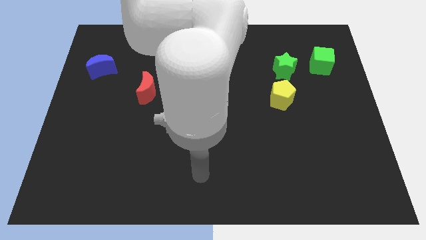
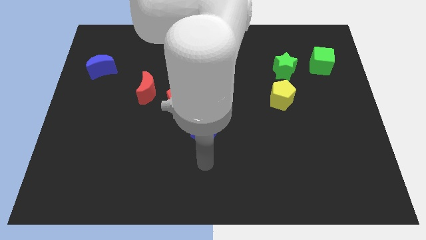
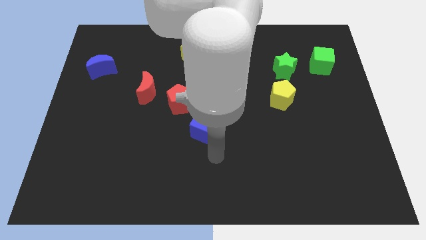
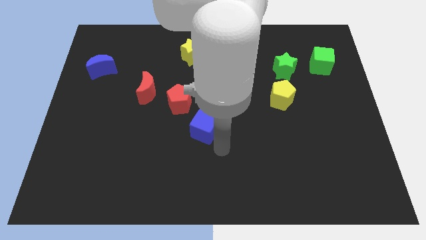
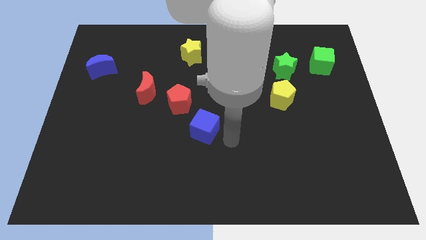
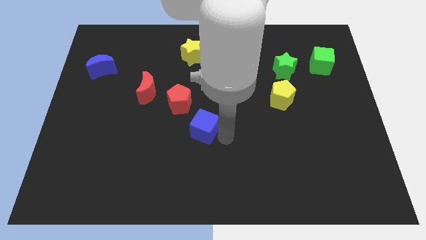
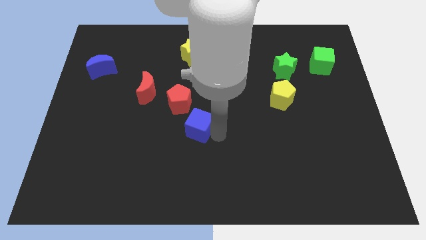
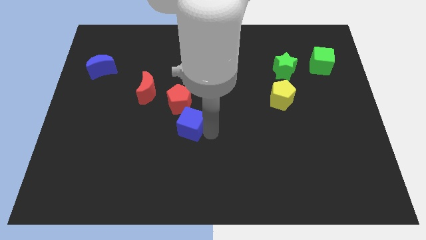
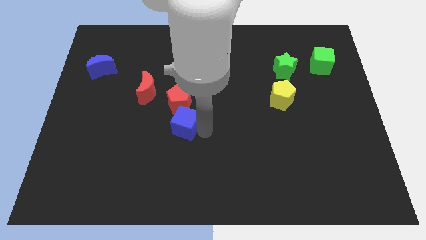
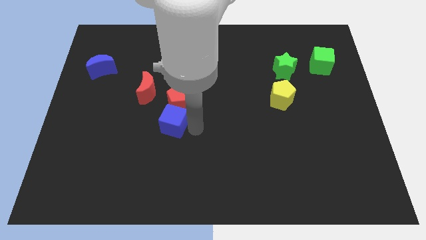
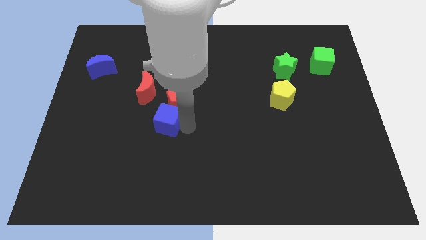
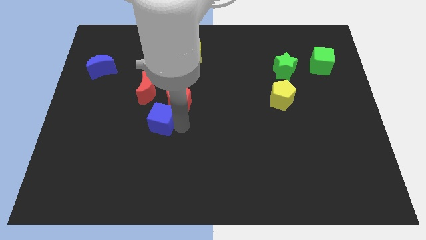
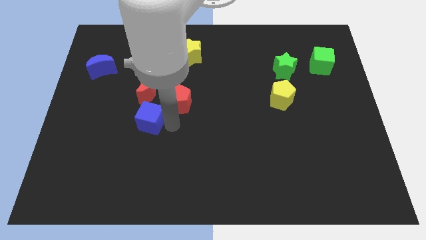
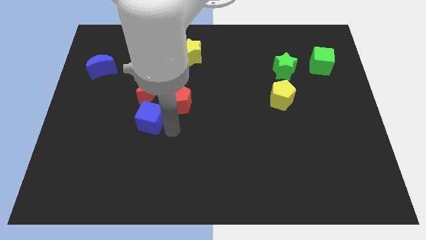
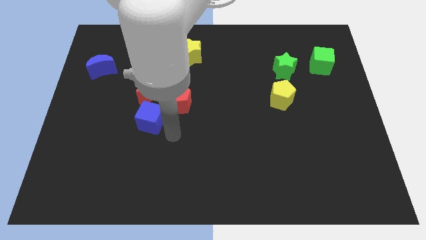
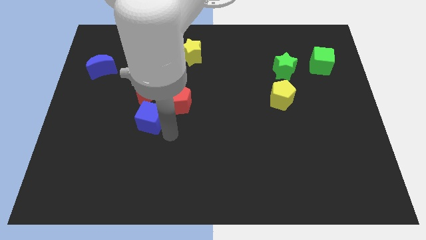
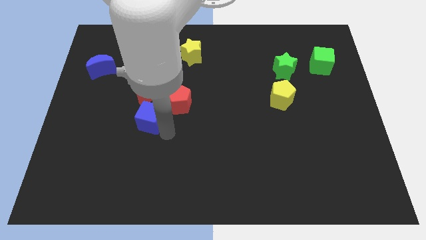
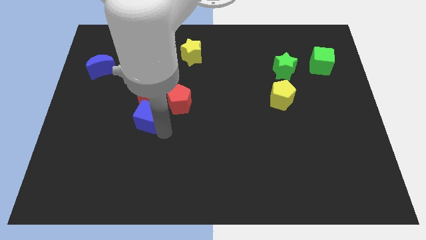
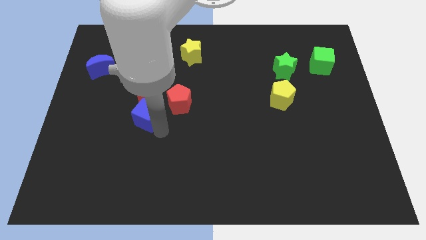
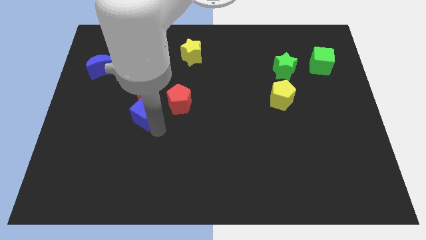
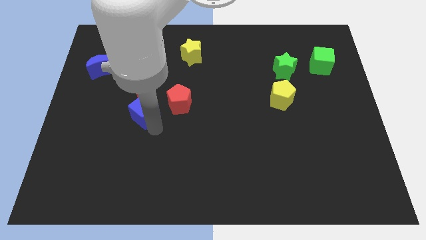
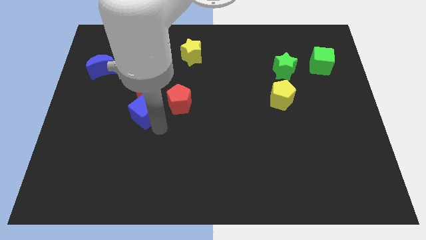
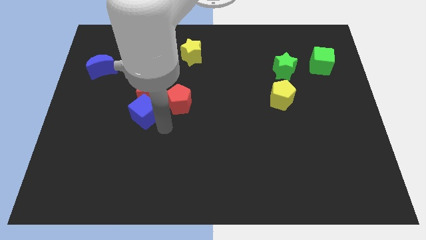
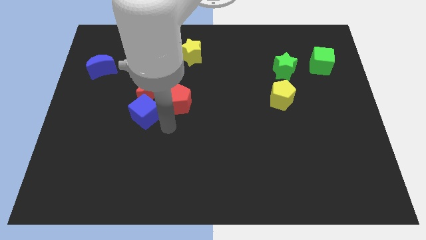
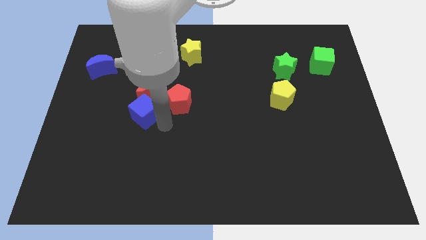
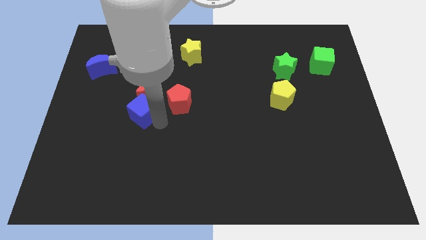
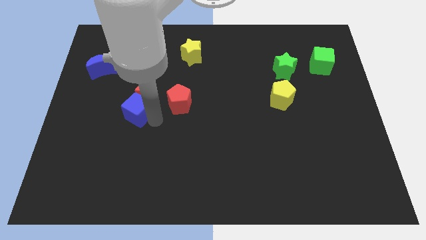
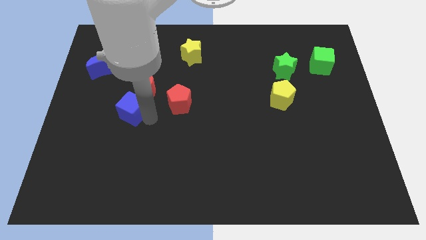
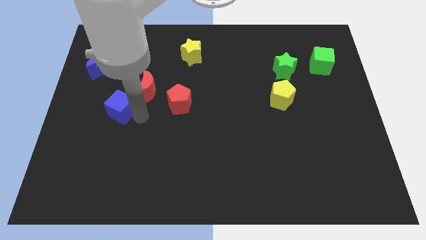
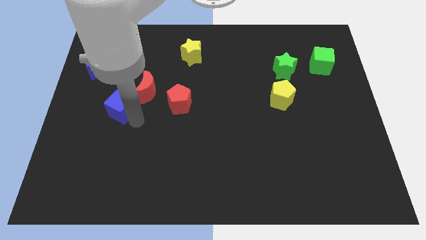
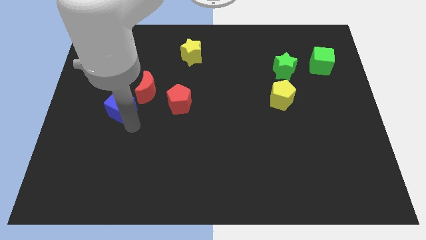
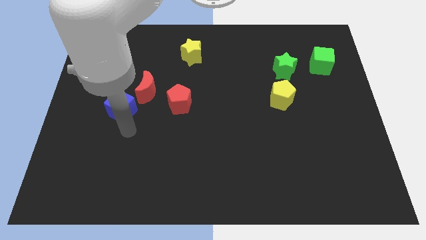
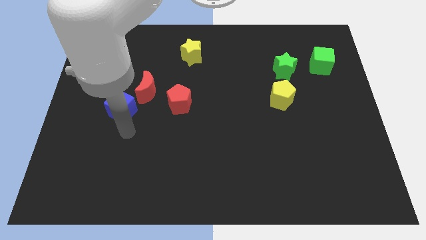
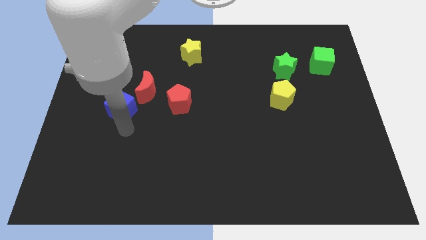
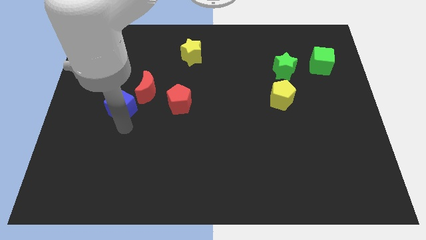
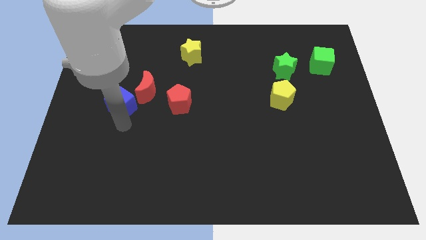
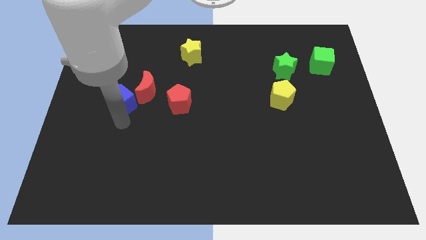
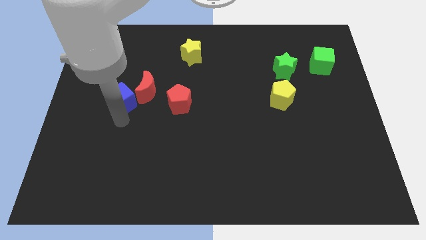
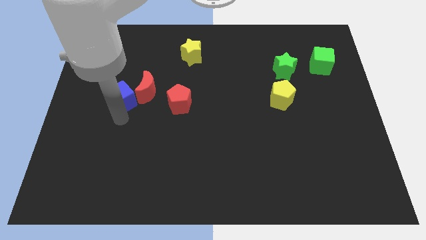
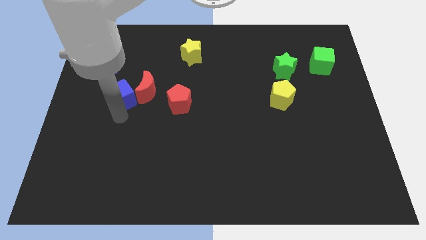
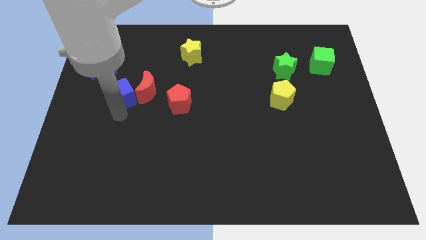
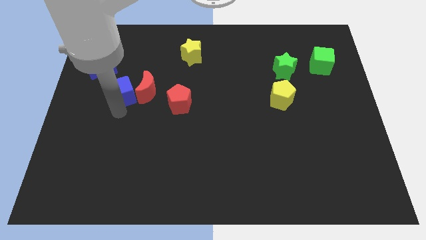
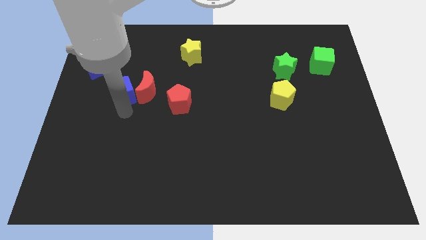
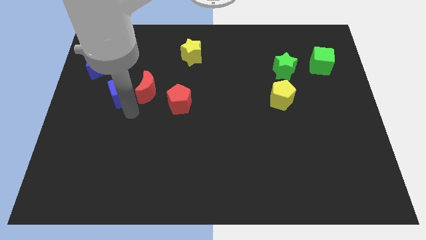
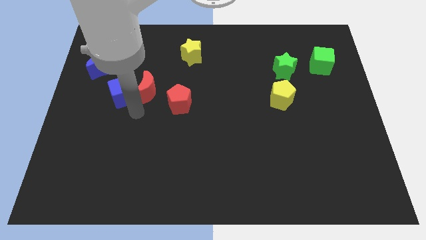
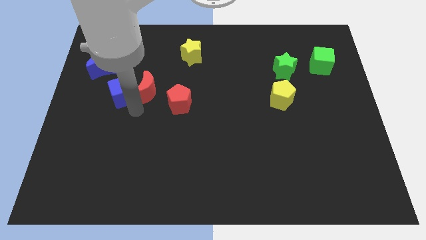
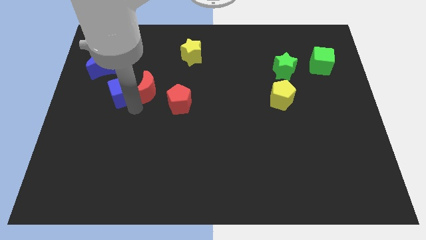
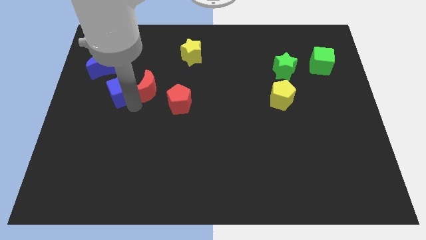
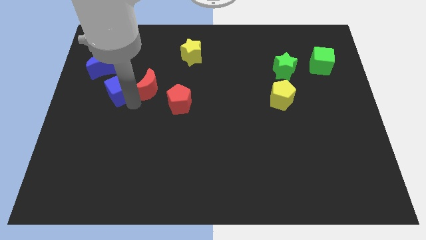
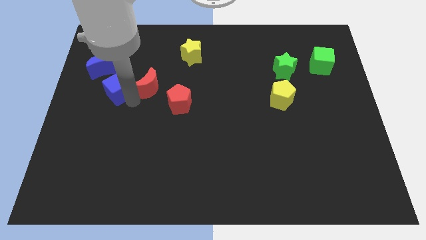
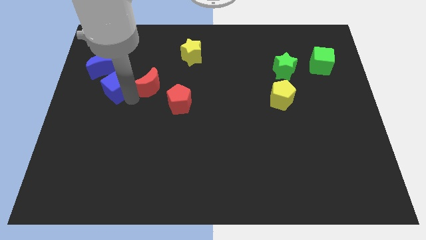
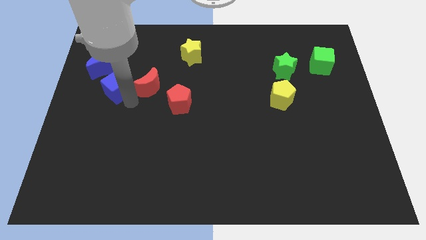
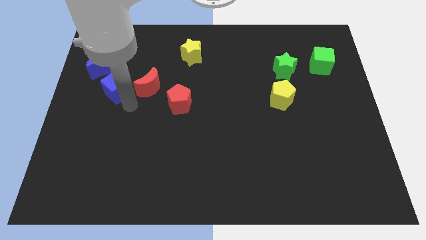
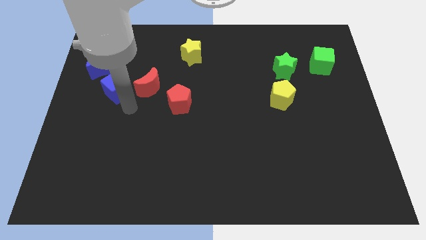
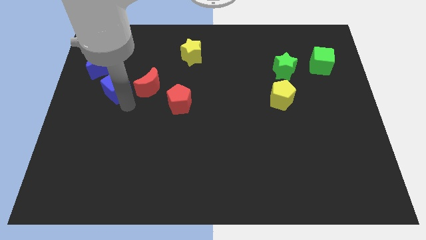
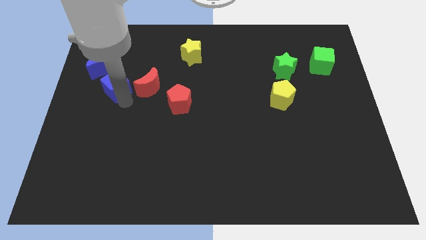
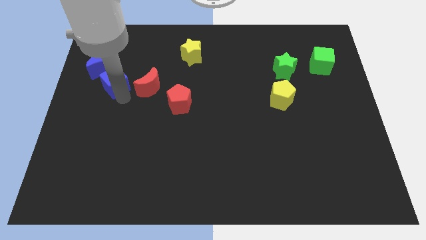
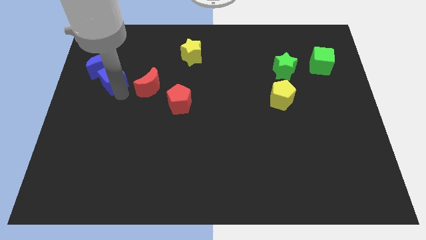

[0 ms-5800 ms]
push the blue cube to the blue moon

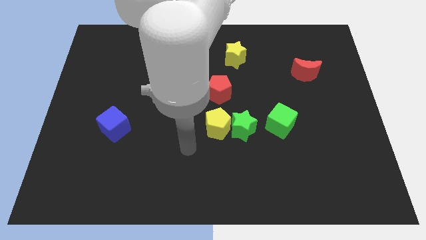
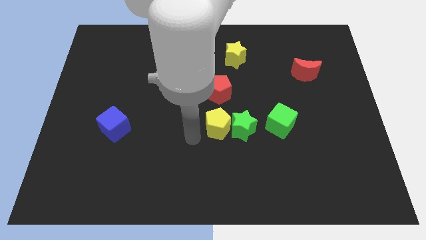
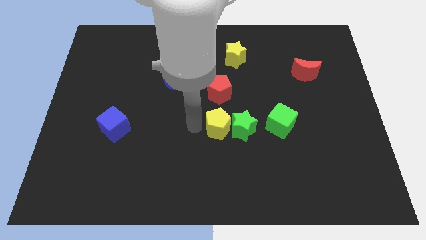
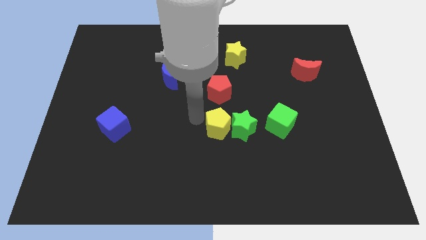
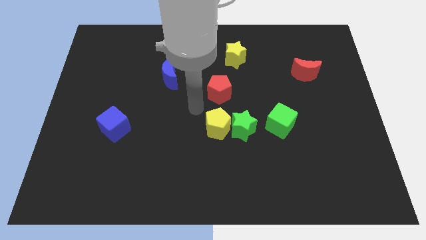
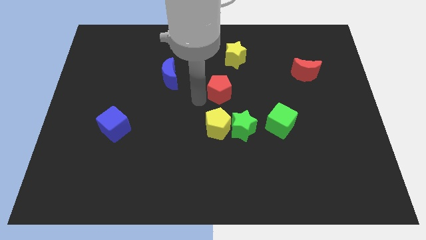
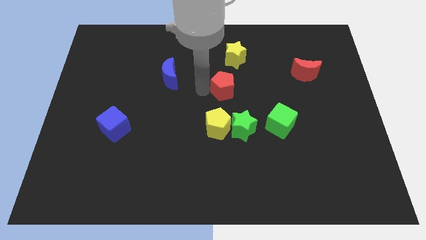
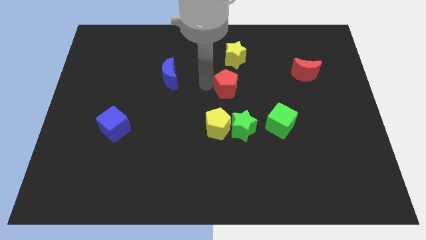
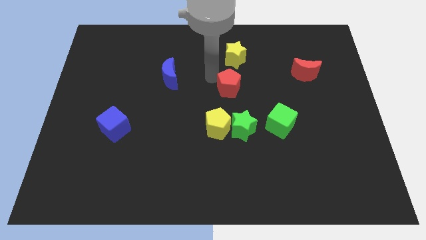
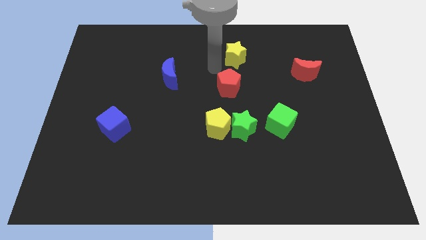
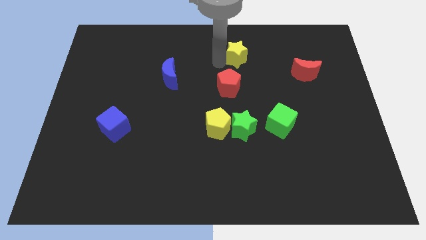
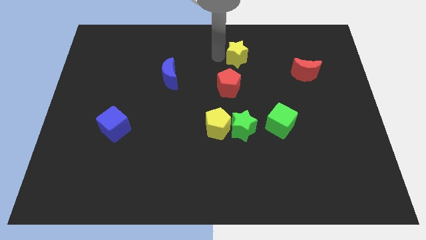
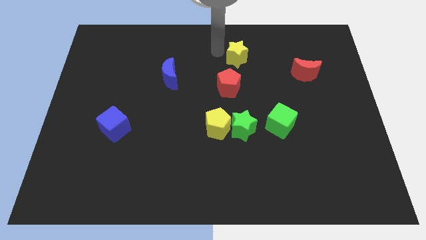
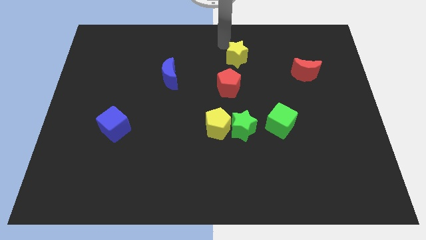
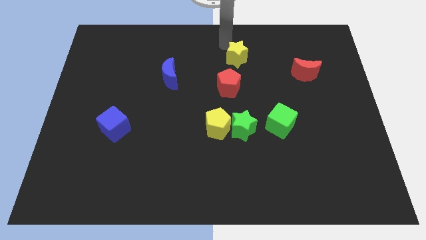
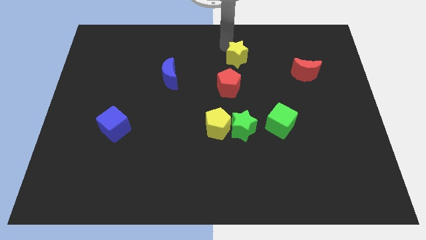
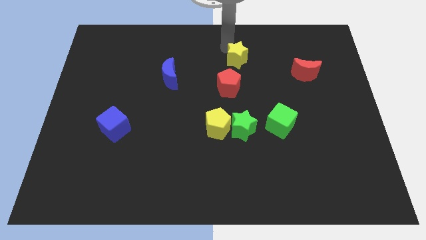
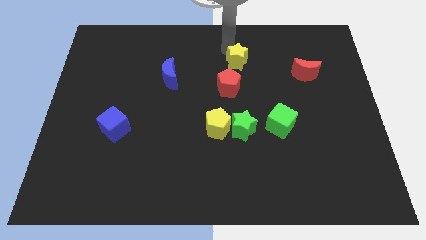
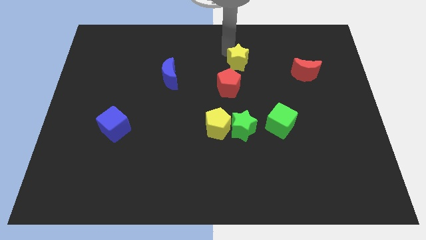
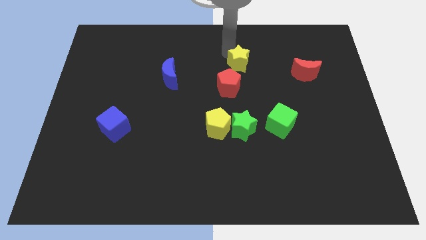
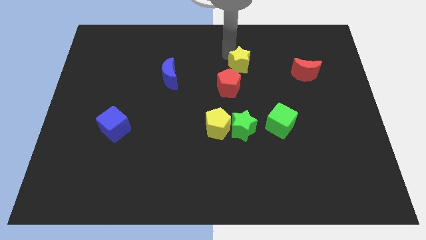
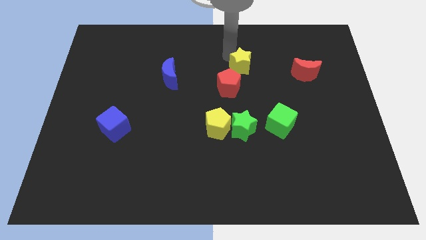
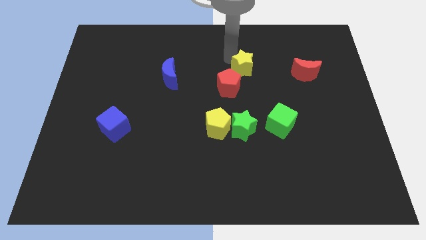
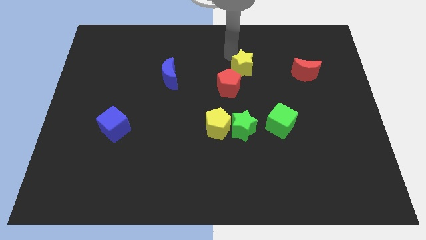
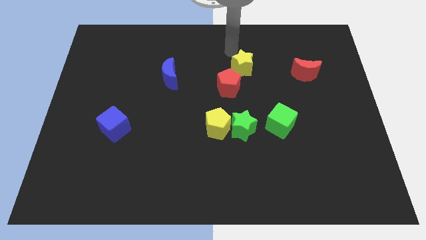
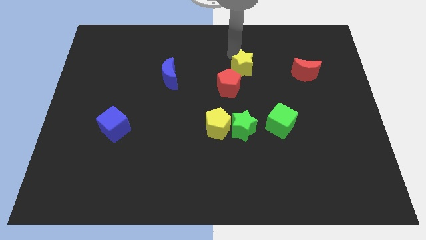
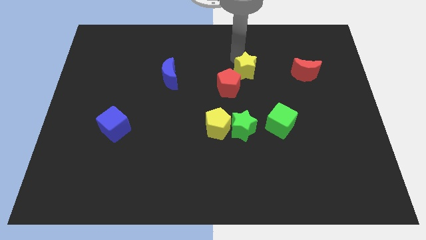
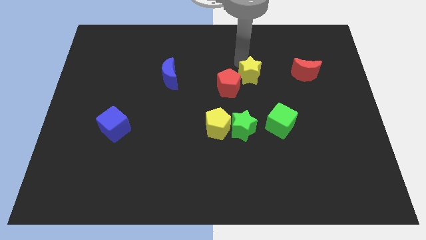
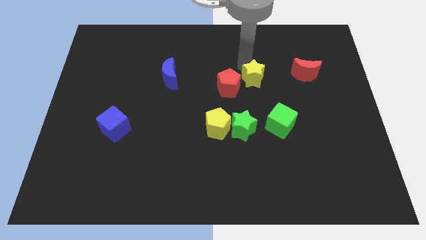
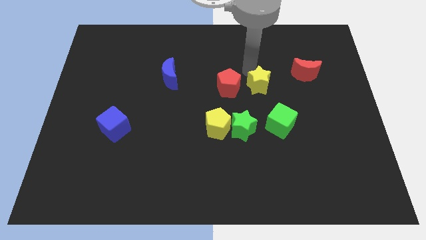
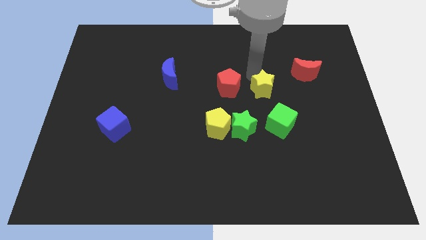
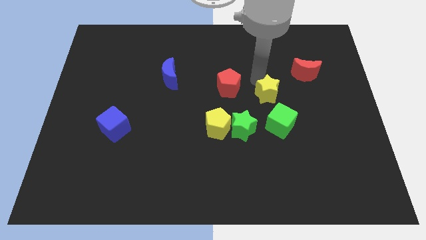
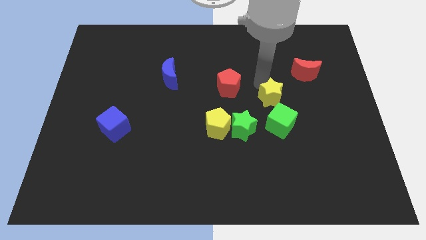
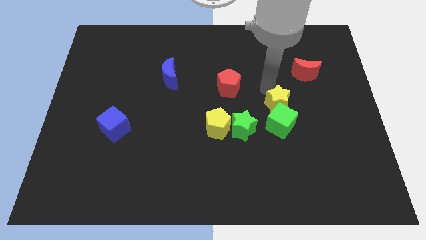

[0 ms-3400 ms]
slide the yellow star towards the green cube
